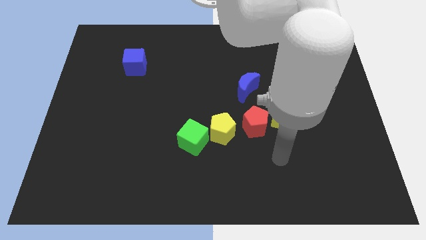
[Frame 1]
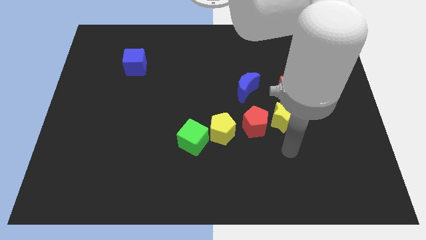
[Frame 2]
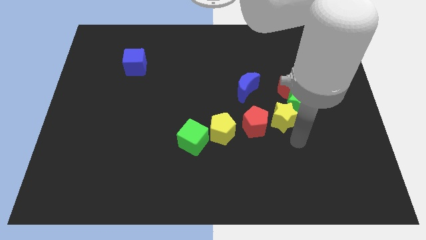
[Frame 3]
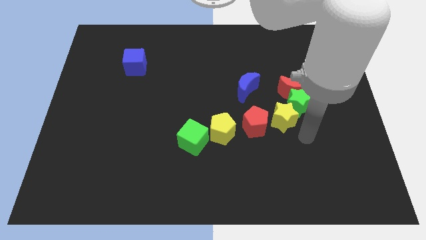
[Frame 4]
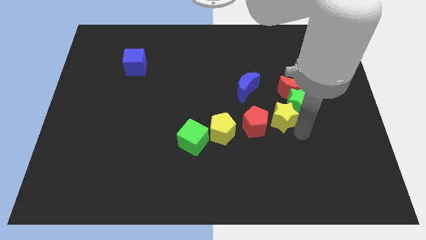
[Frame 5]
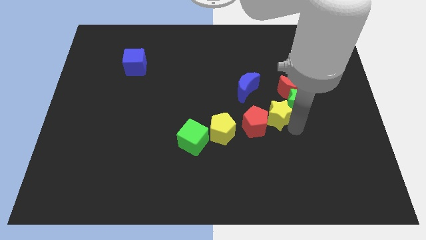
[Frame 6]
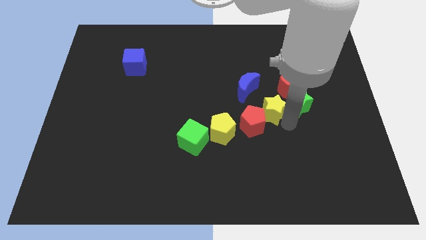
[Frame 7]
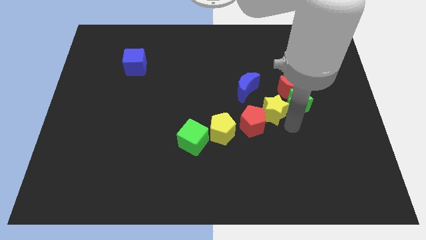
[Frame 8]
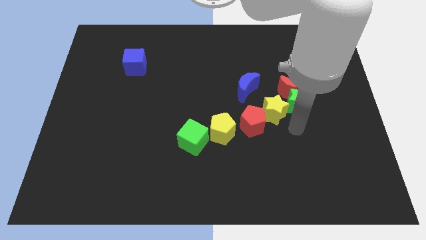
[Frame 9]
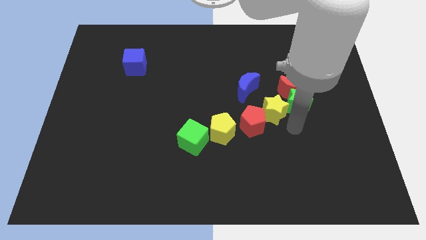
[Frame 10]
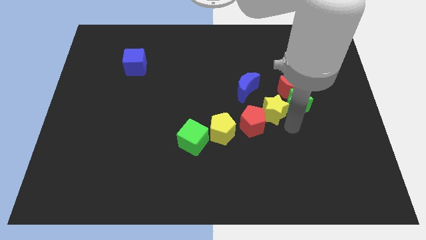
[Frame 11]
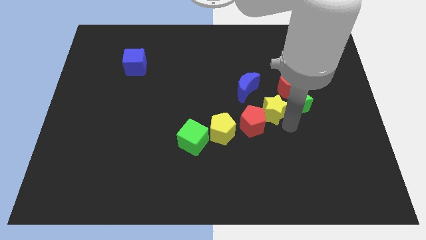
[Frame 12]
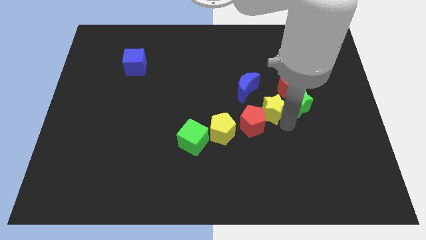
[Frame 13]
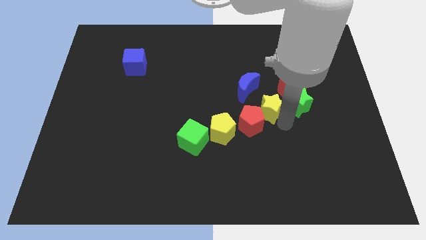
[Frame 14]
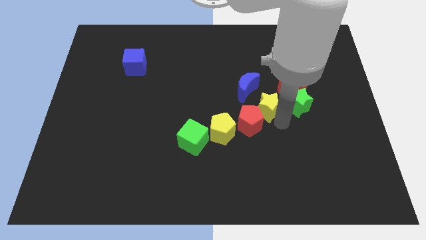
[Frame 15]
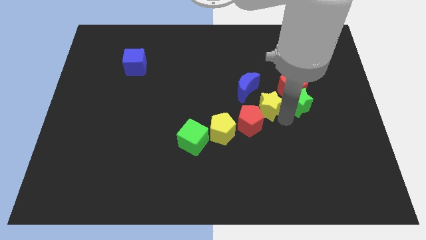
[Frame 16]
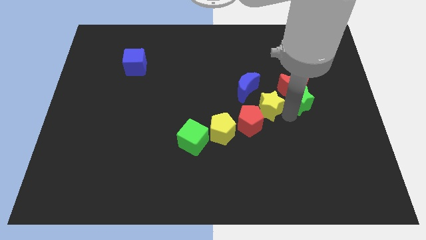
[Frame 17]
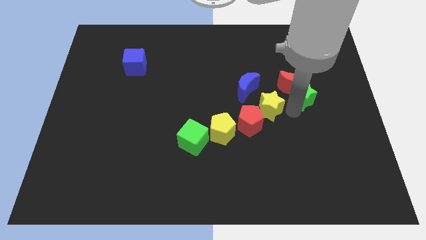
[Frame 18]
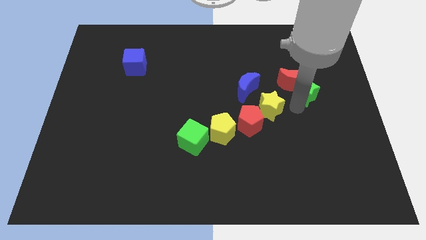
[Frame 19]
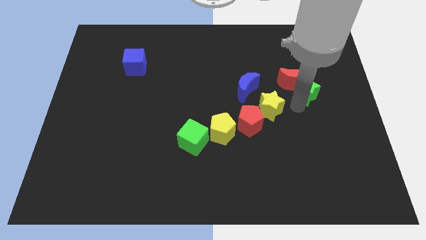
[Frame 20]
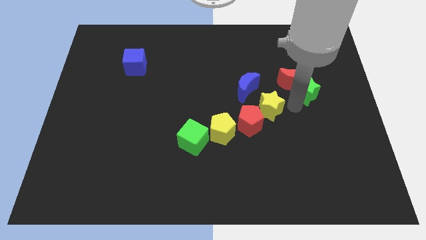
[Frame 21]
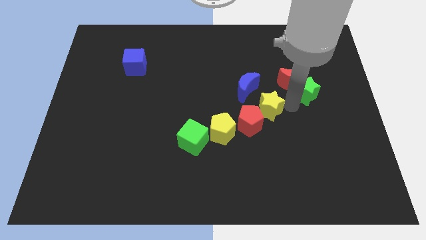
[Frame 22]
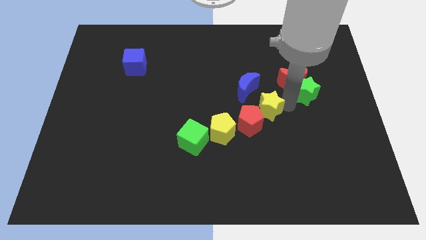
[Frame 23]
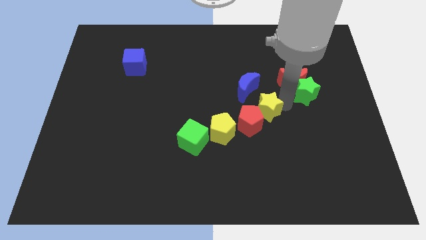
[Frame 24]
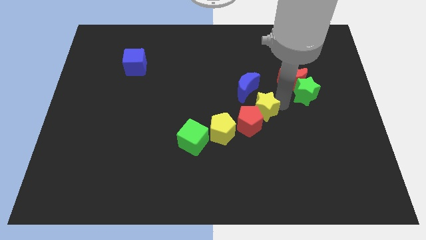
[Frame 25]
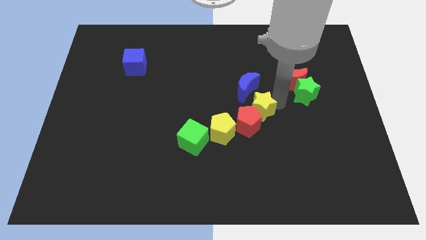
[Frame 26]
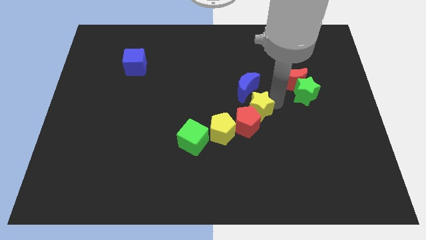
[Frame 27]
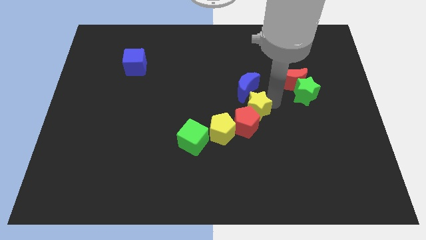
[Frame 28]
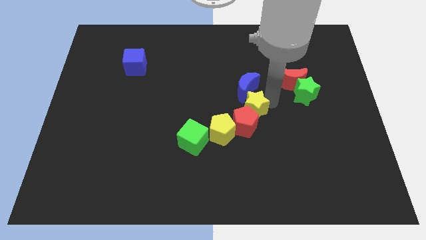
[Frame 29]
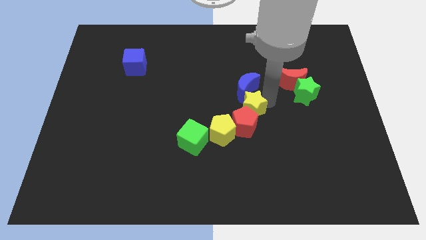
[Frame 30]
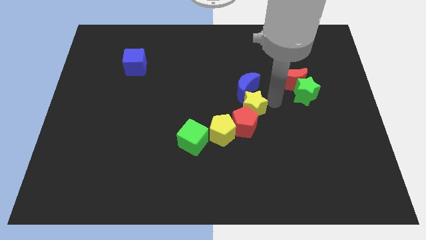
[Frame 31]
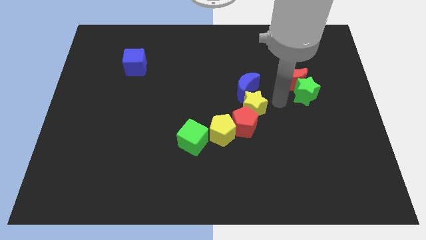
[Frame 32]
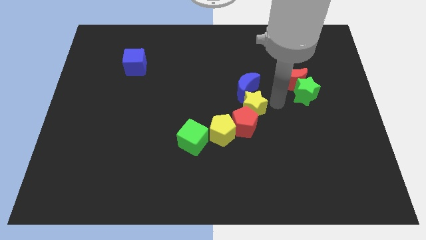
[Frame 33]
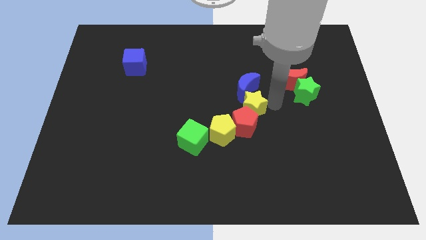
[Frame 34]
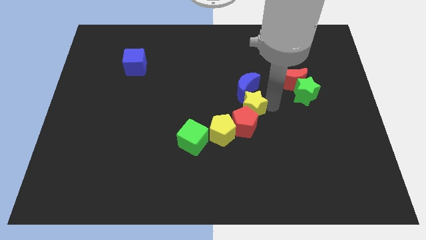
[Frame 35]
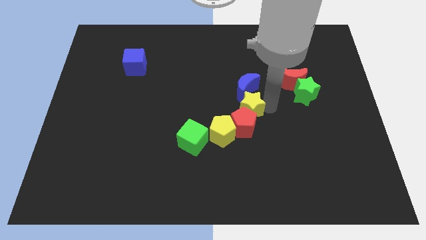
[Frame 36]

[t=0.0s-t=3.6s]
slightly move the yellow star to the left

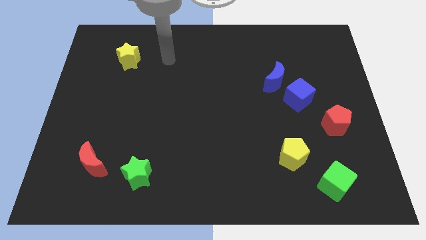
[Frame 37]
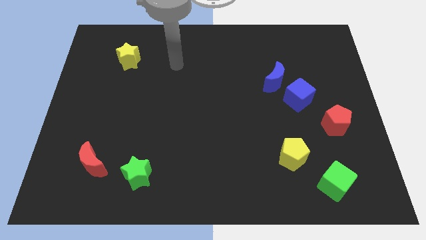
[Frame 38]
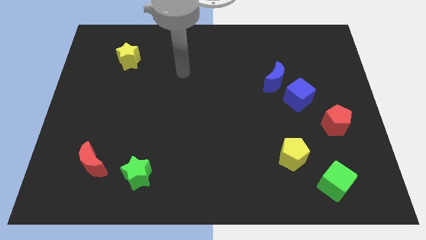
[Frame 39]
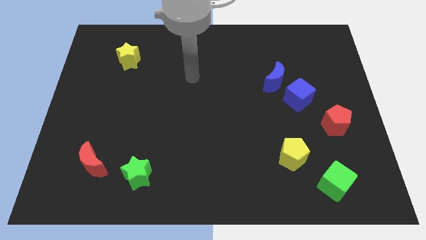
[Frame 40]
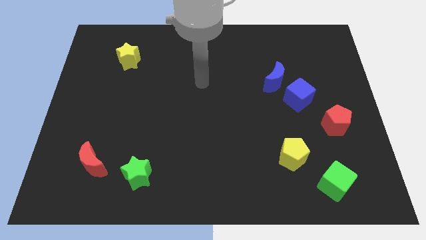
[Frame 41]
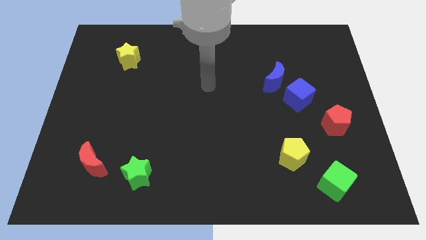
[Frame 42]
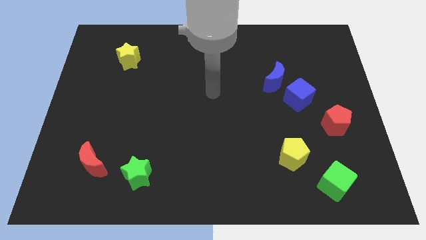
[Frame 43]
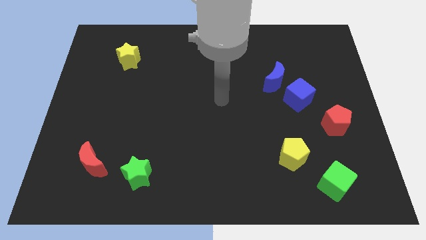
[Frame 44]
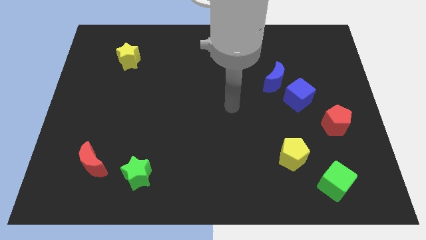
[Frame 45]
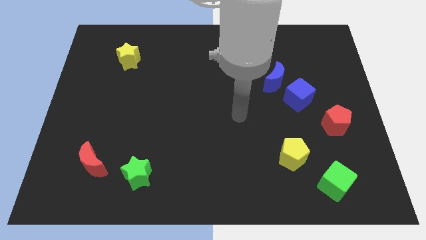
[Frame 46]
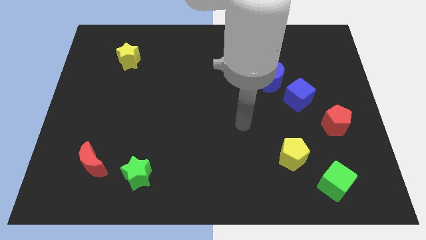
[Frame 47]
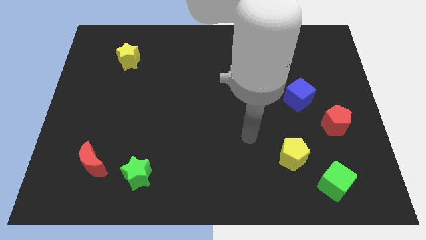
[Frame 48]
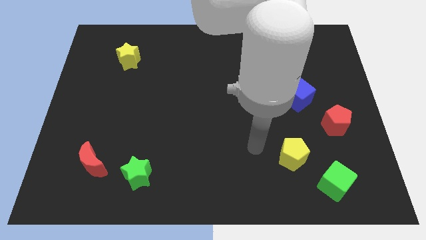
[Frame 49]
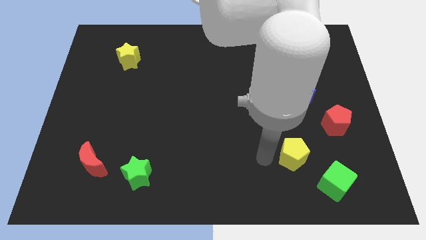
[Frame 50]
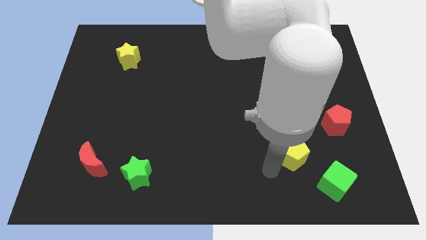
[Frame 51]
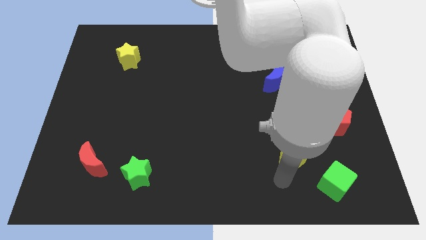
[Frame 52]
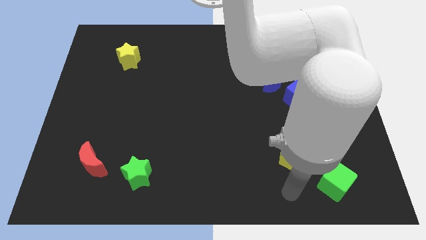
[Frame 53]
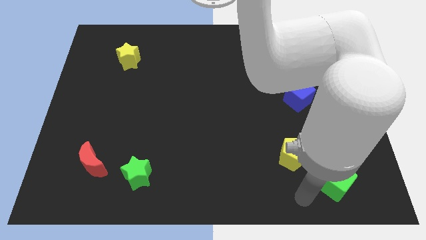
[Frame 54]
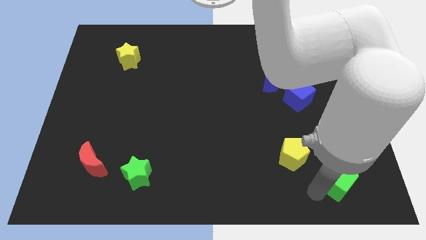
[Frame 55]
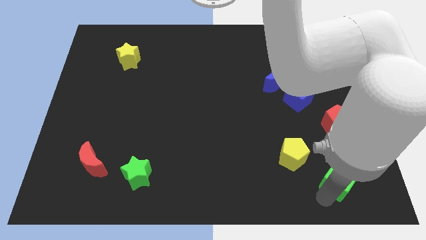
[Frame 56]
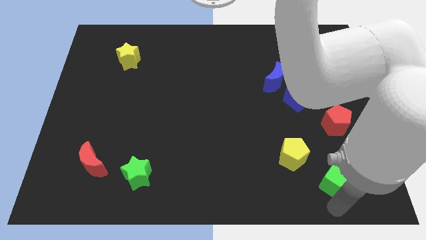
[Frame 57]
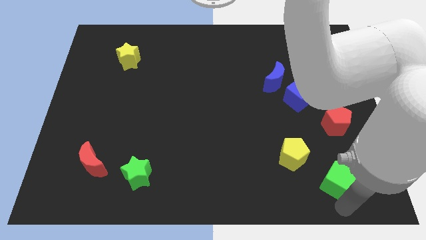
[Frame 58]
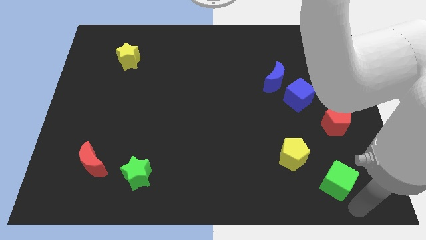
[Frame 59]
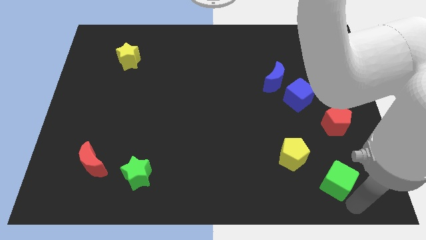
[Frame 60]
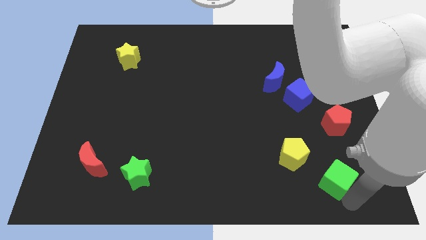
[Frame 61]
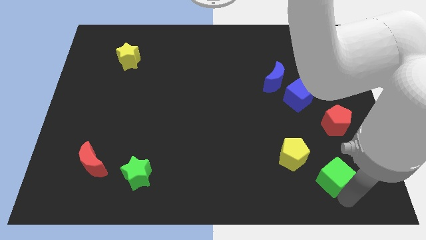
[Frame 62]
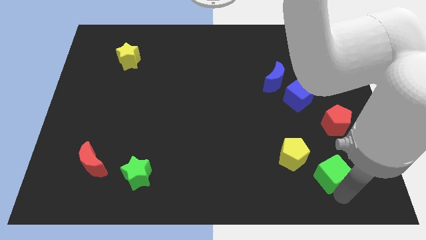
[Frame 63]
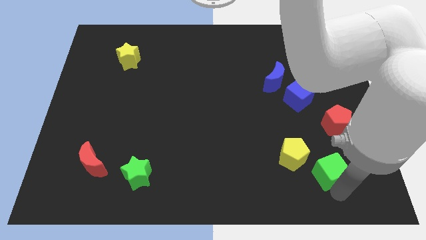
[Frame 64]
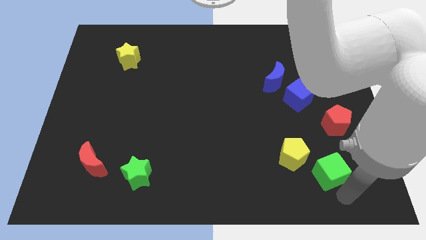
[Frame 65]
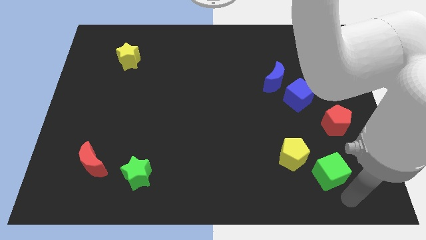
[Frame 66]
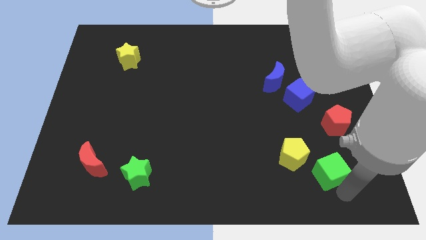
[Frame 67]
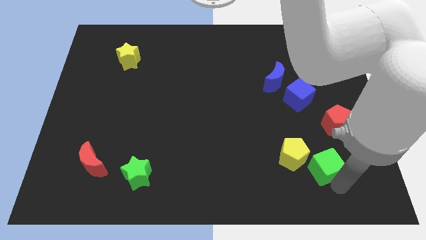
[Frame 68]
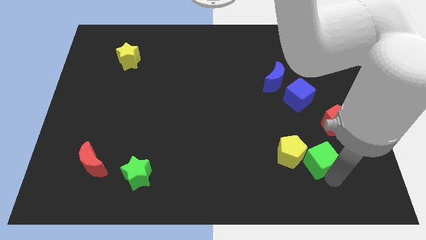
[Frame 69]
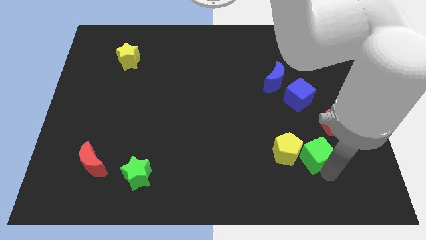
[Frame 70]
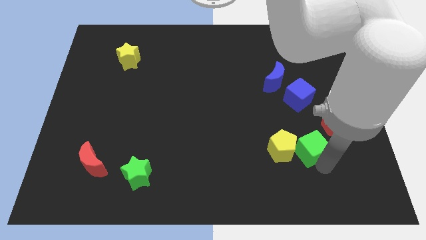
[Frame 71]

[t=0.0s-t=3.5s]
push the green cube somewhat upwards and left

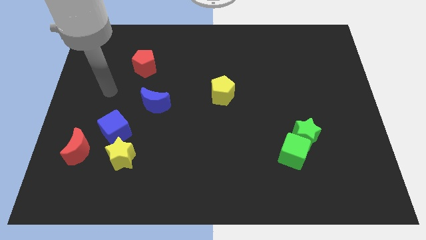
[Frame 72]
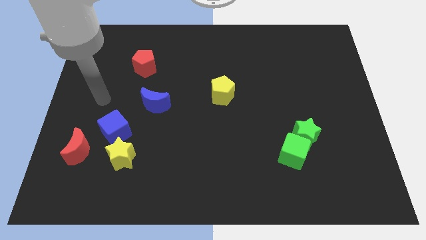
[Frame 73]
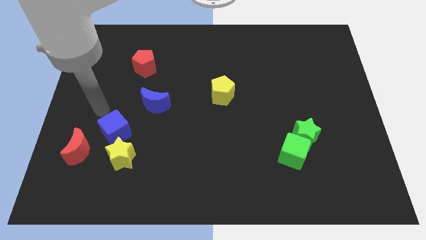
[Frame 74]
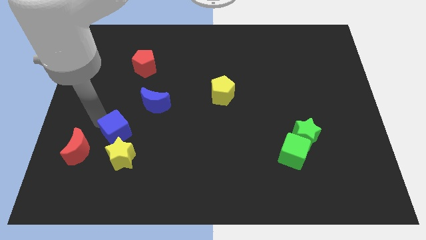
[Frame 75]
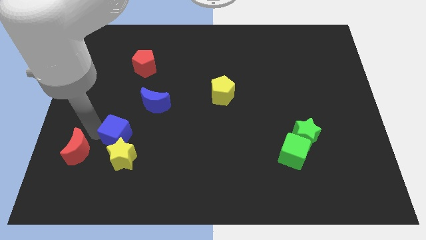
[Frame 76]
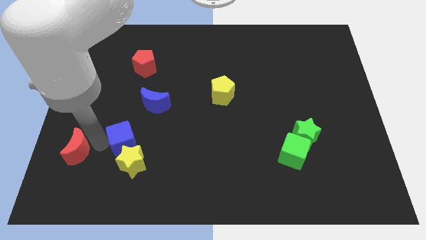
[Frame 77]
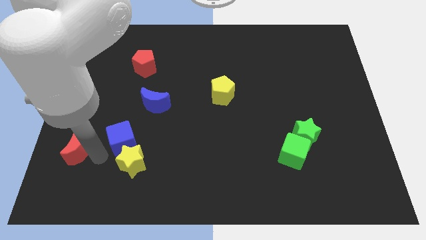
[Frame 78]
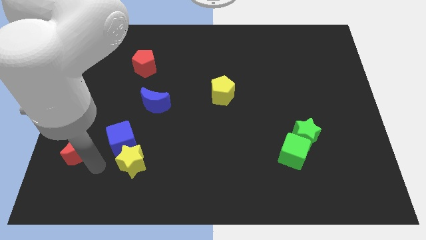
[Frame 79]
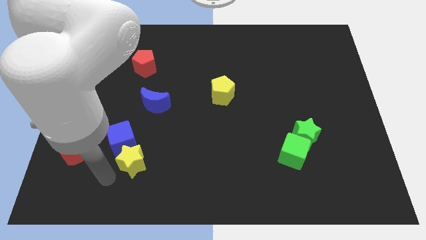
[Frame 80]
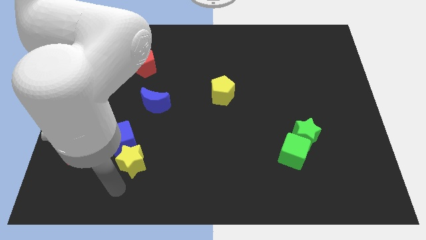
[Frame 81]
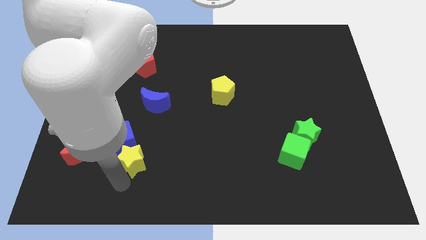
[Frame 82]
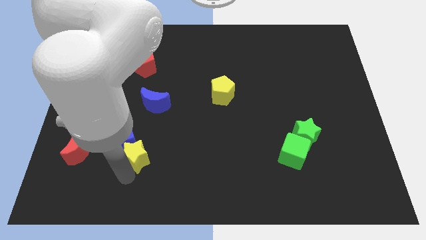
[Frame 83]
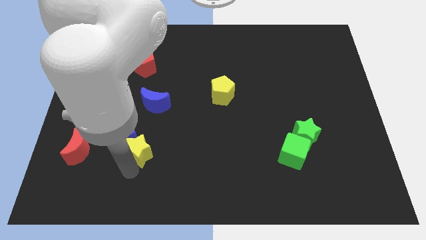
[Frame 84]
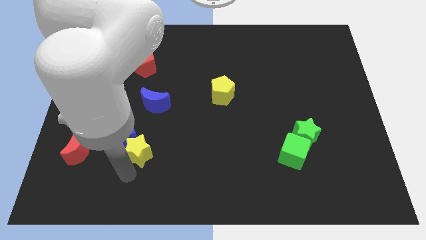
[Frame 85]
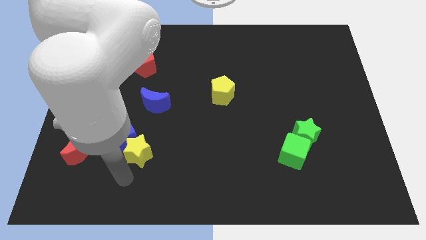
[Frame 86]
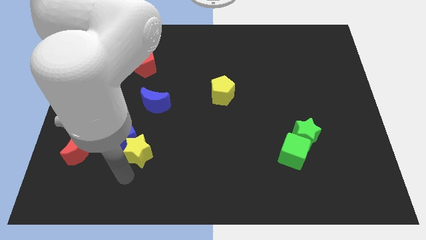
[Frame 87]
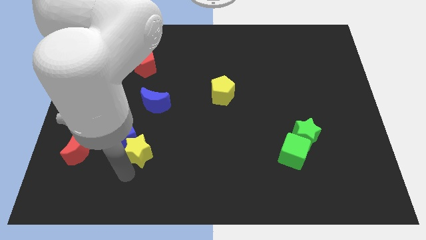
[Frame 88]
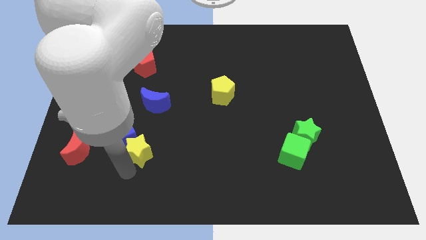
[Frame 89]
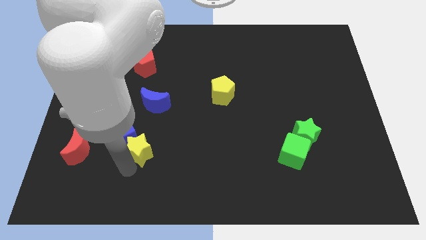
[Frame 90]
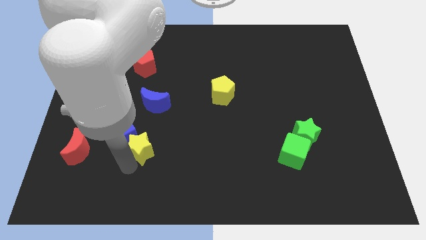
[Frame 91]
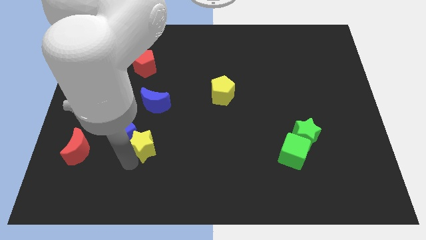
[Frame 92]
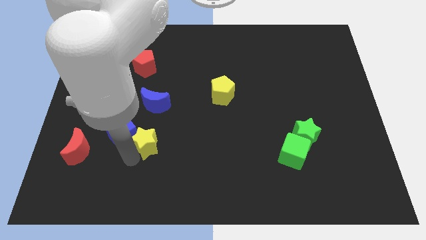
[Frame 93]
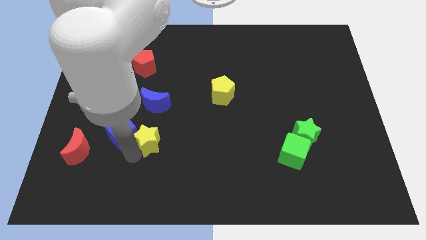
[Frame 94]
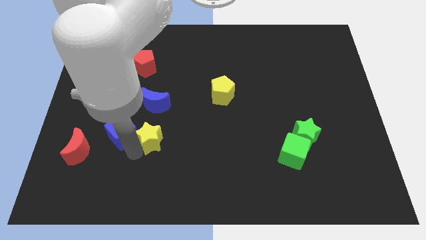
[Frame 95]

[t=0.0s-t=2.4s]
slightly push the yellow star upwards and right
